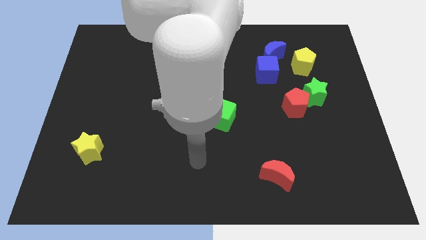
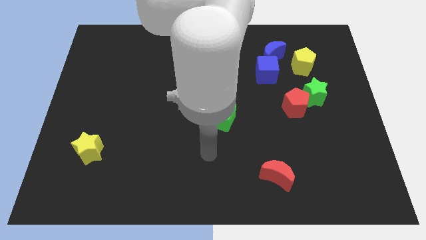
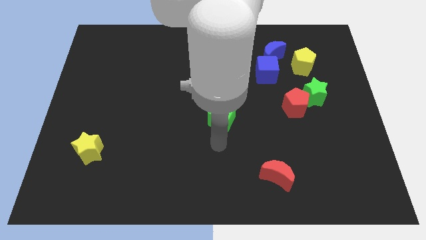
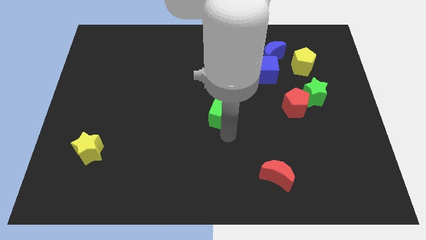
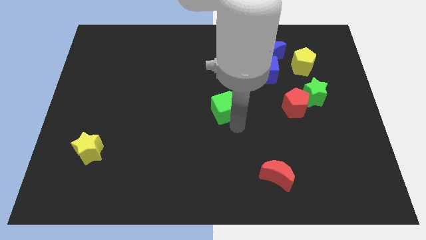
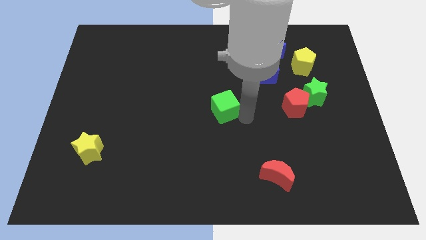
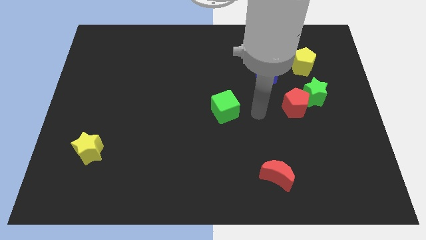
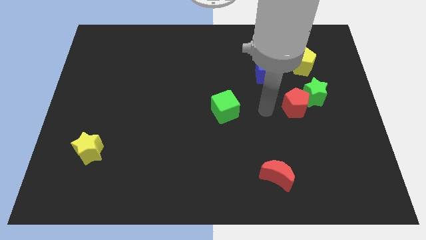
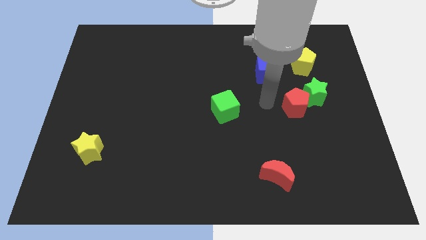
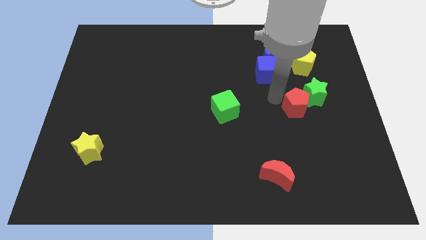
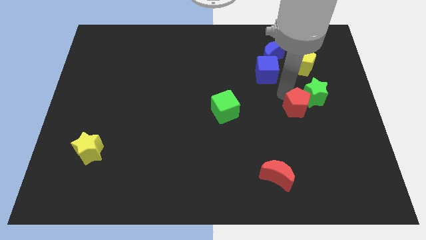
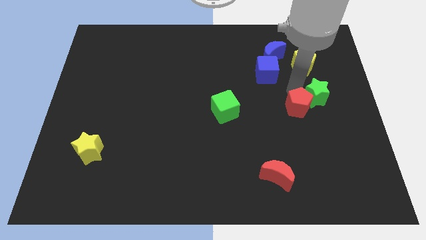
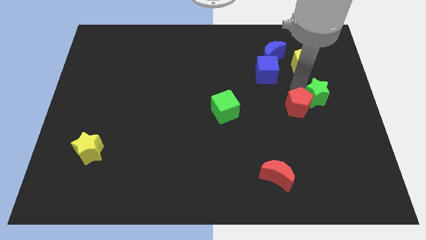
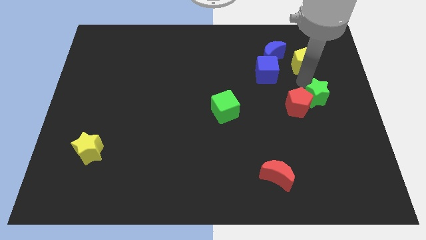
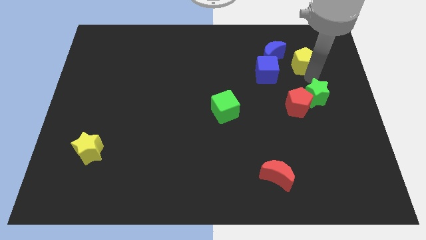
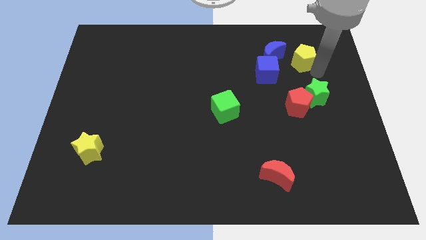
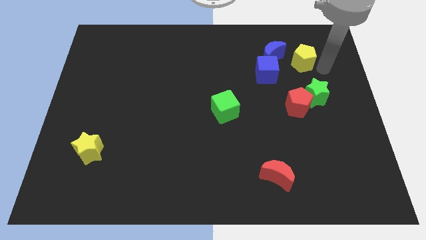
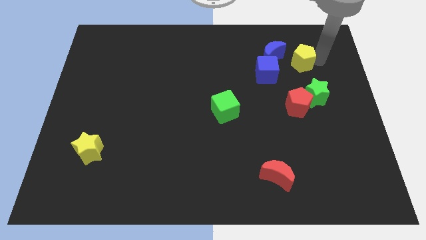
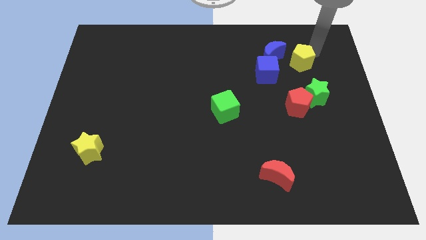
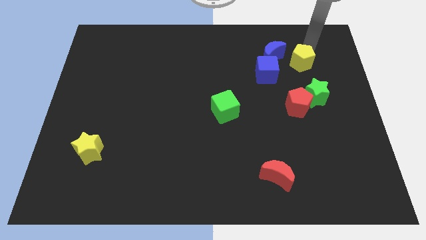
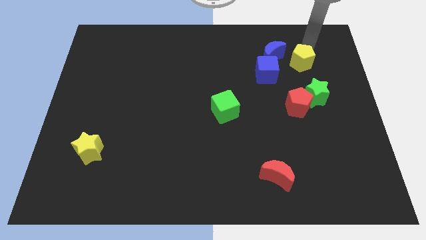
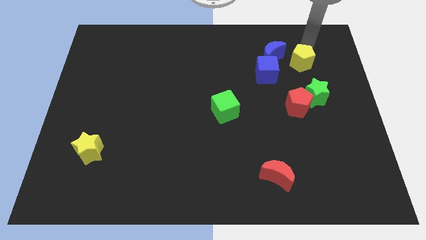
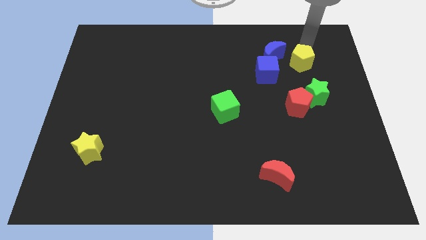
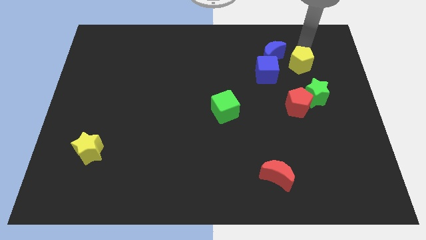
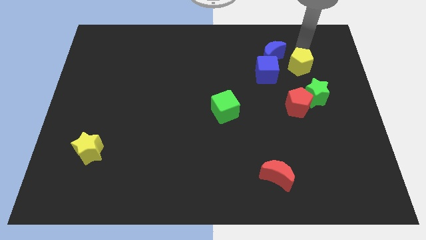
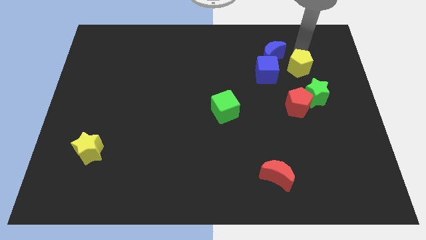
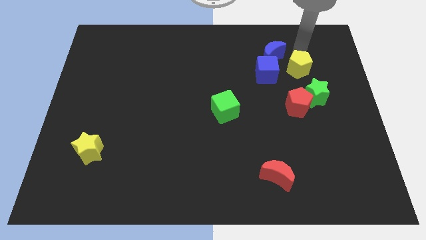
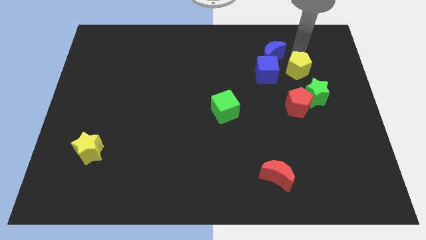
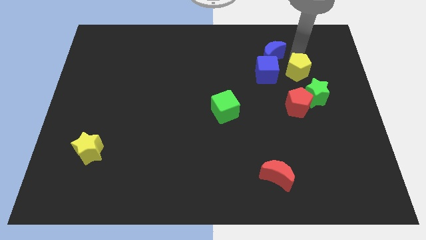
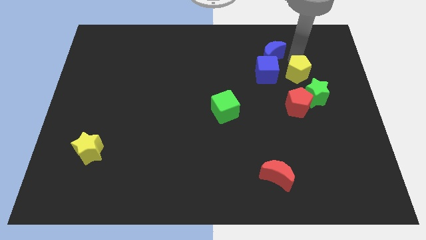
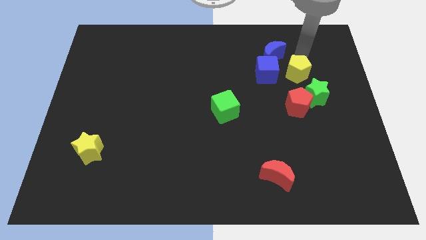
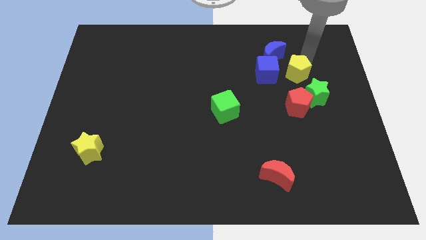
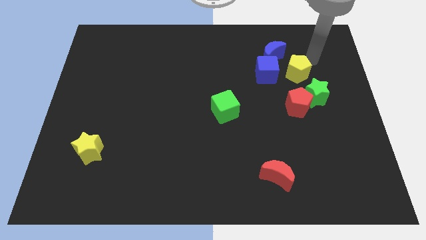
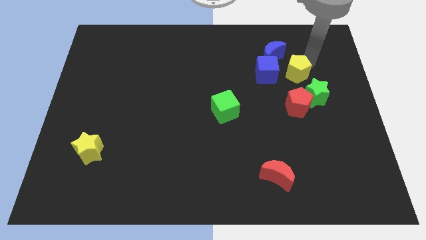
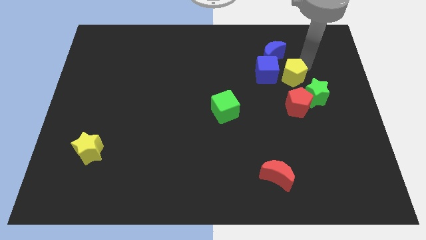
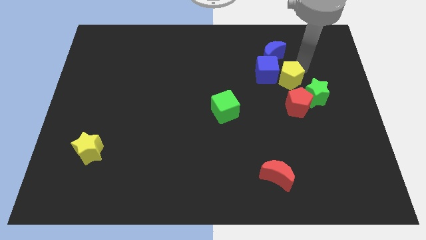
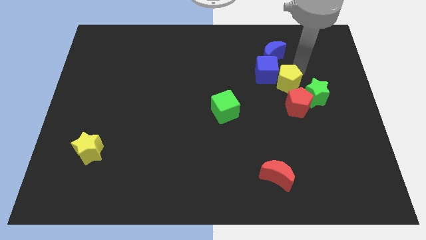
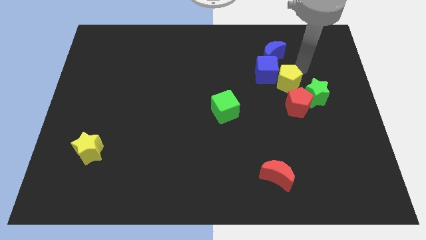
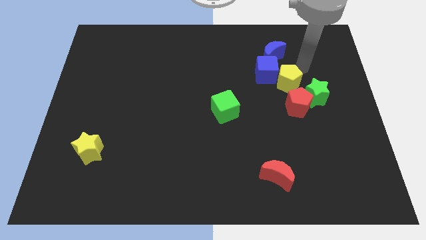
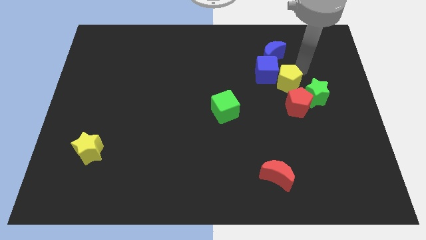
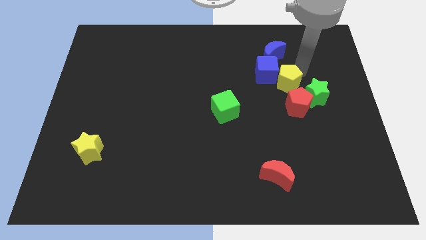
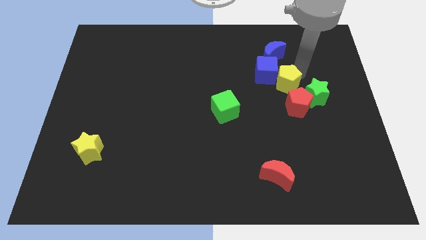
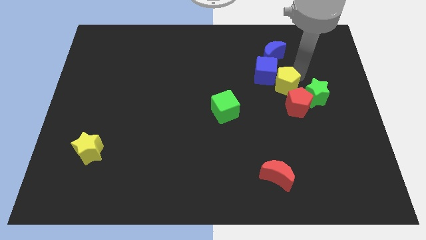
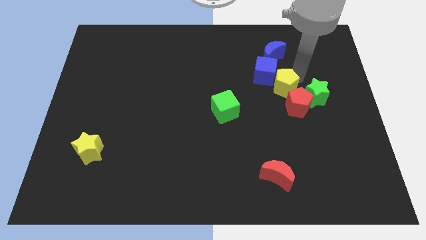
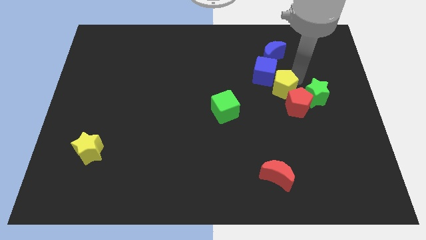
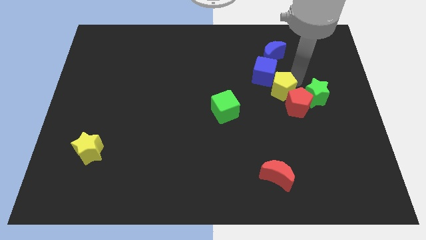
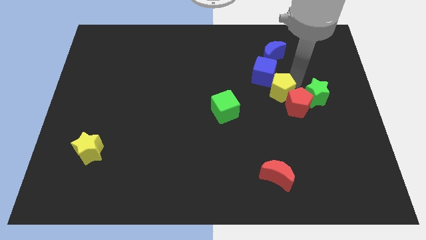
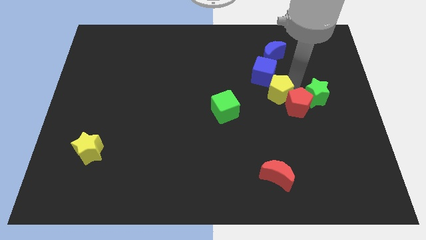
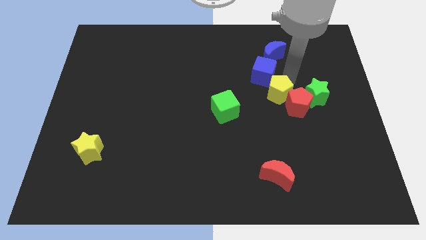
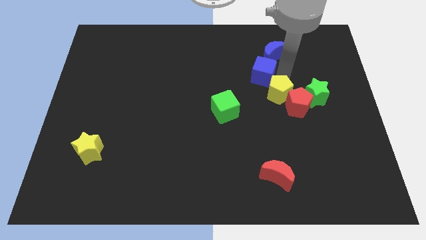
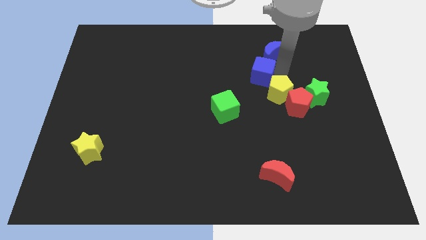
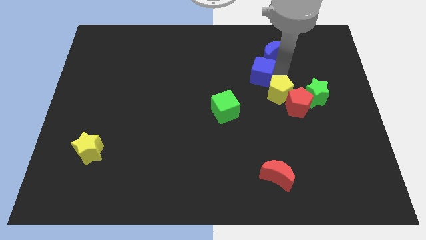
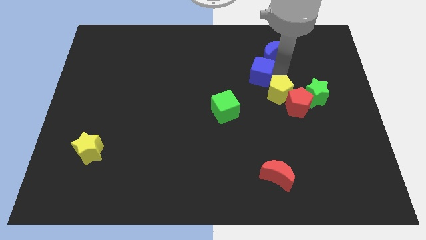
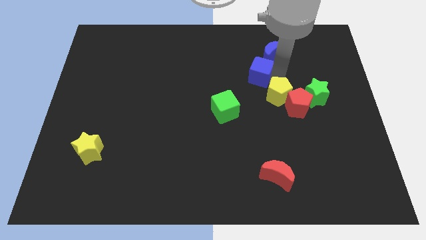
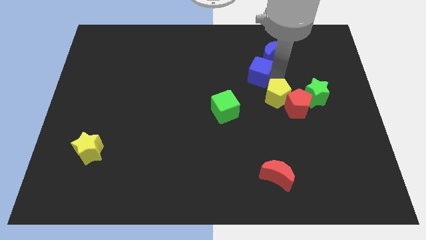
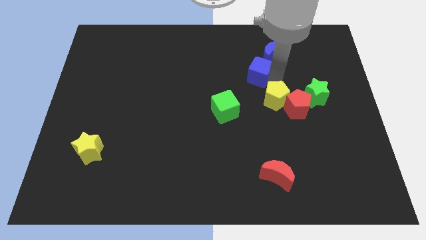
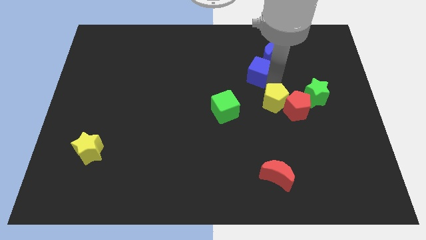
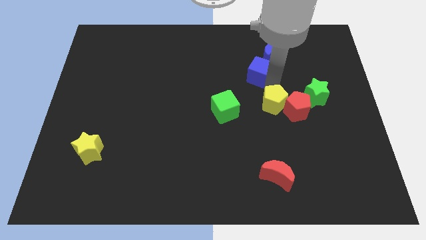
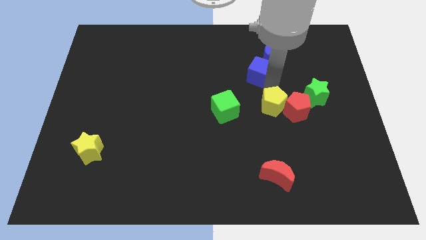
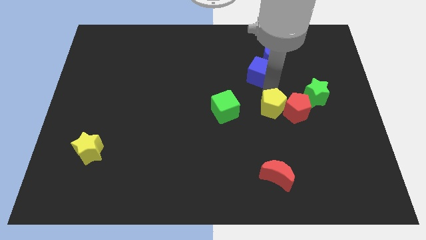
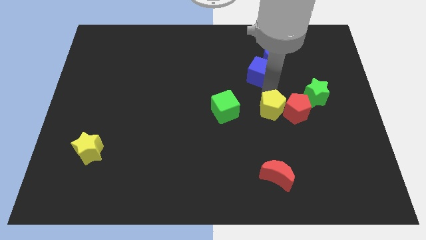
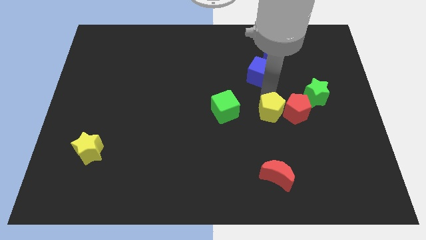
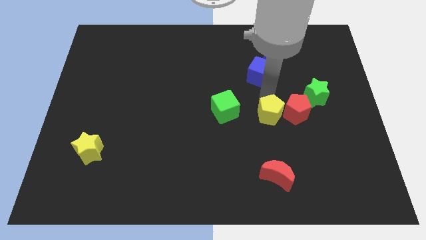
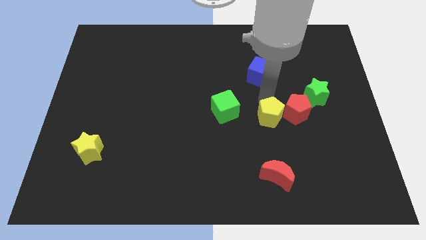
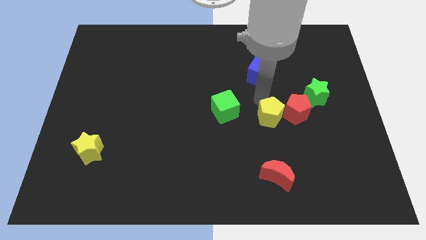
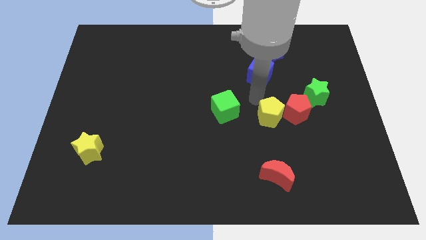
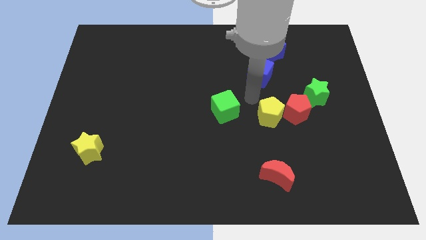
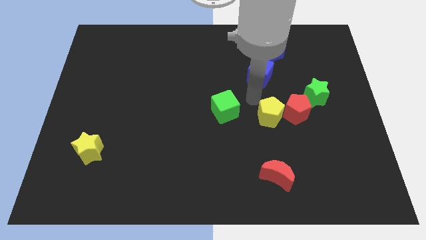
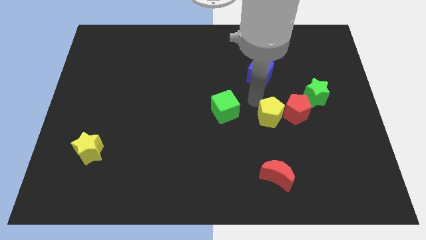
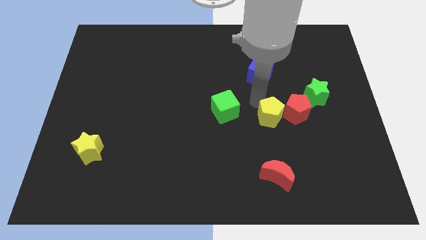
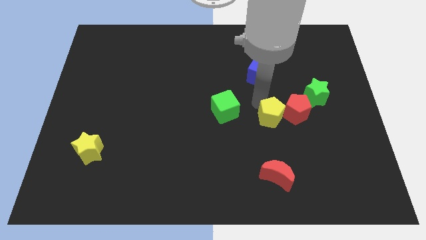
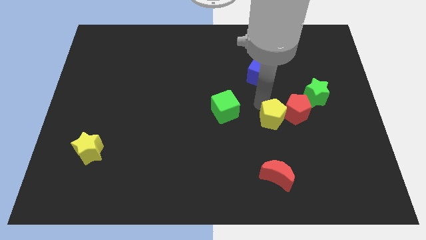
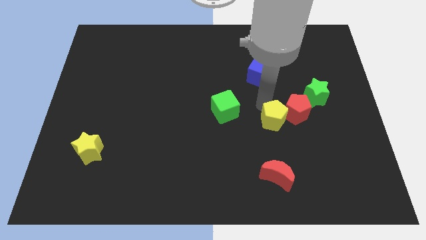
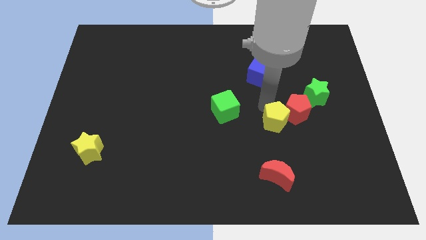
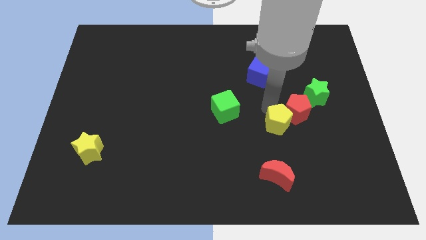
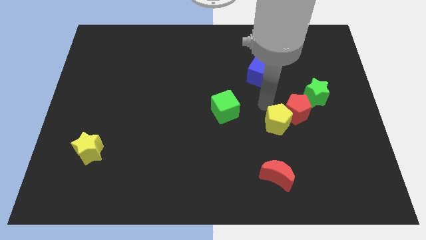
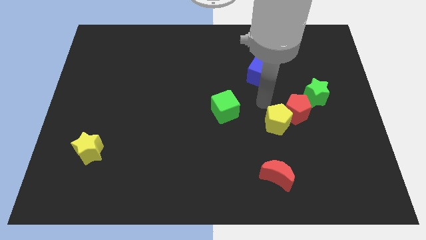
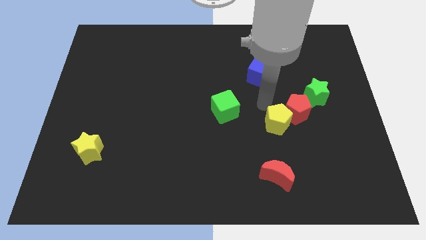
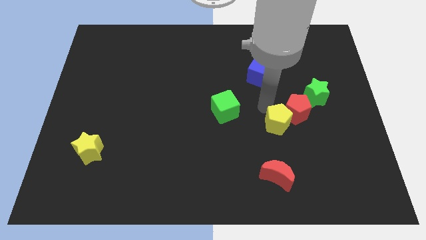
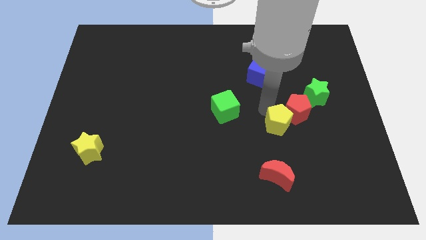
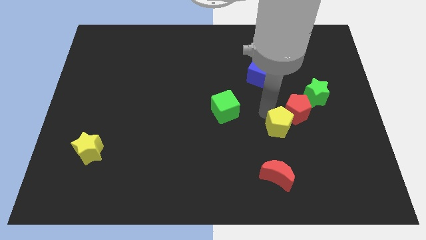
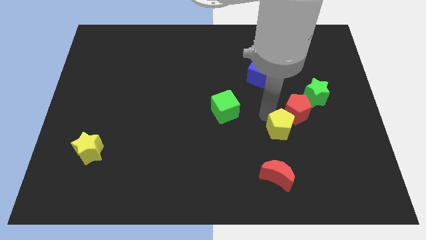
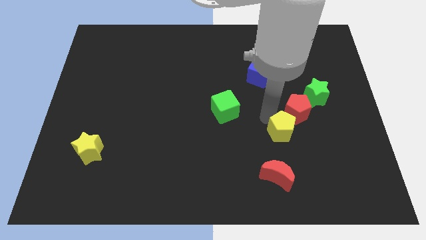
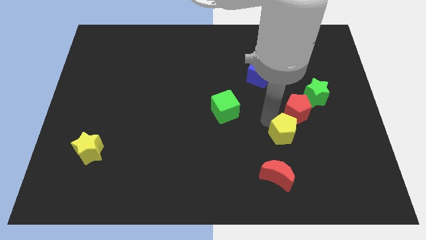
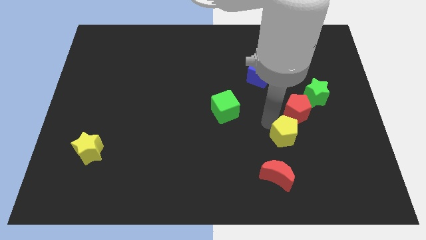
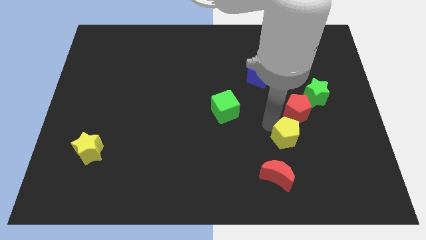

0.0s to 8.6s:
slide the yellow pentagon down
